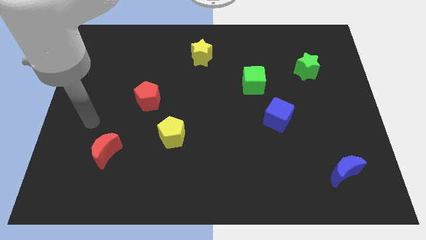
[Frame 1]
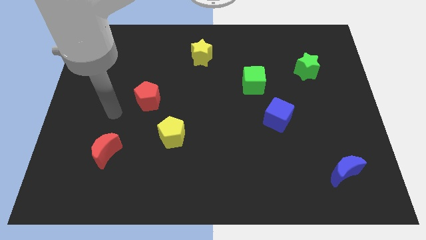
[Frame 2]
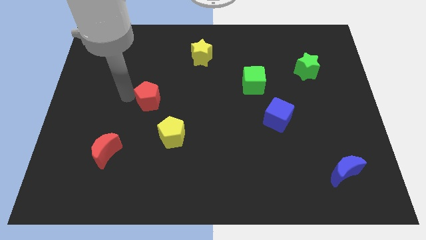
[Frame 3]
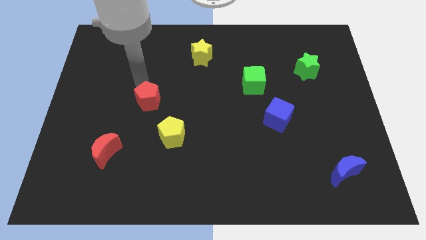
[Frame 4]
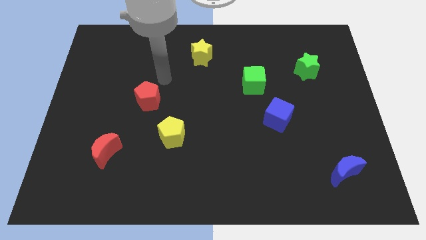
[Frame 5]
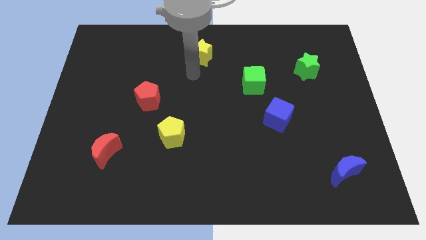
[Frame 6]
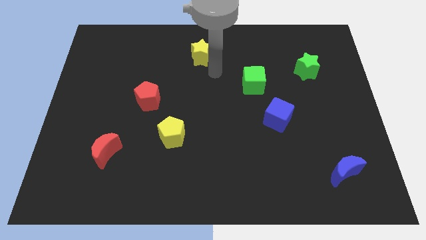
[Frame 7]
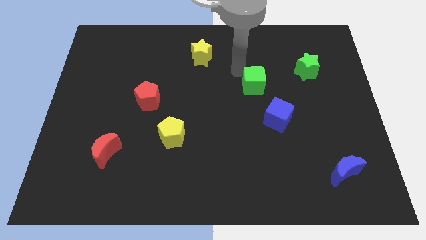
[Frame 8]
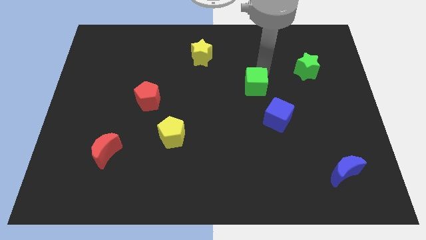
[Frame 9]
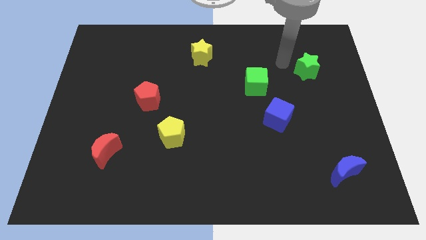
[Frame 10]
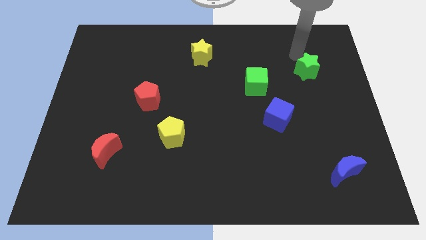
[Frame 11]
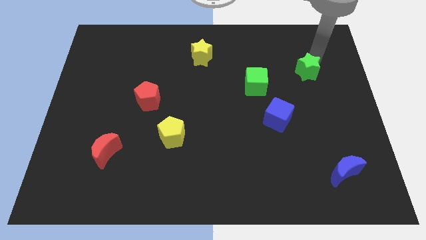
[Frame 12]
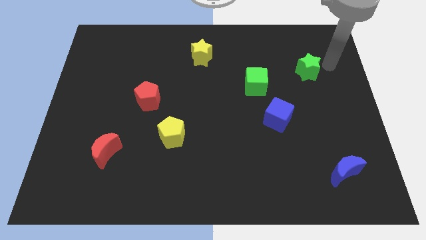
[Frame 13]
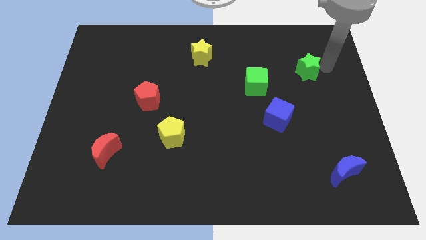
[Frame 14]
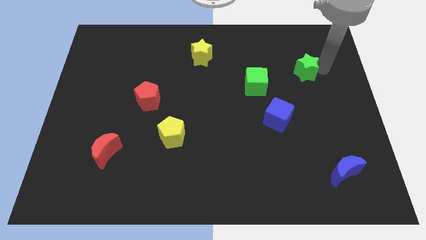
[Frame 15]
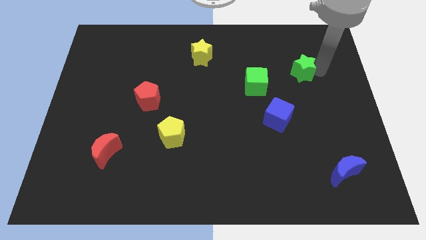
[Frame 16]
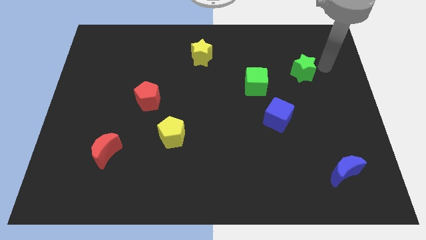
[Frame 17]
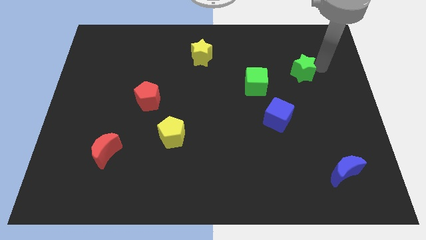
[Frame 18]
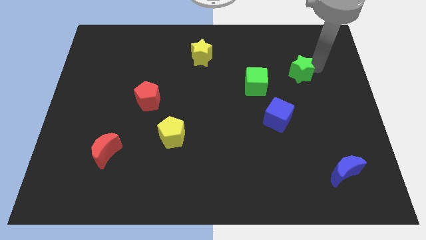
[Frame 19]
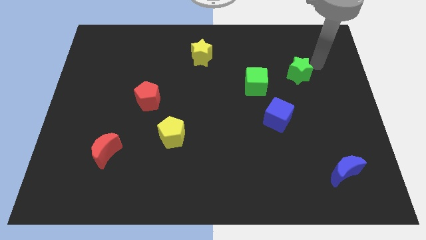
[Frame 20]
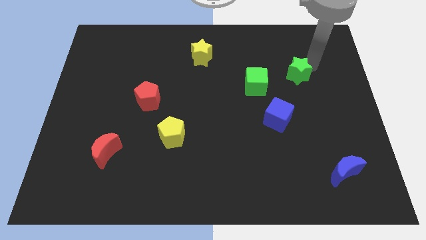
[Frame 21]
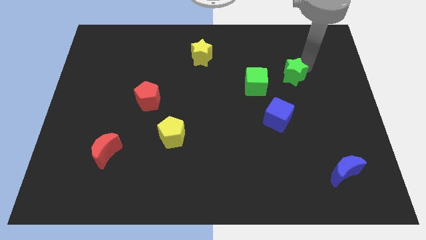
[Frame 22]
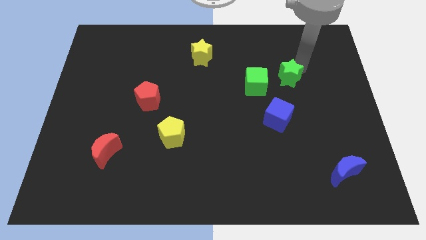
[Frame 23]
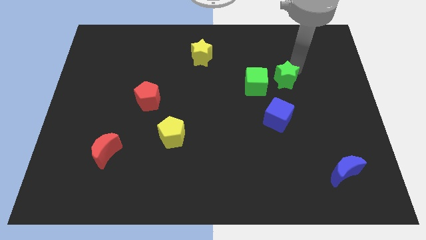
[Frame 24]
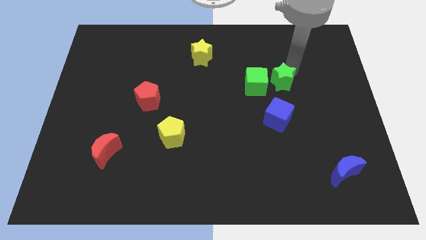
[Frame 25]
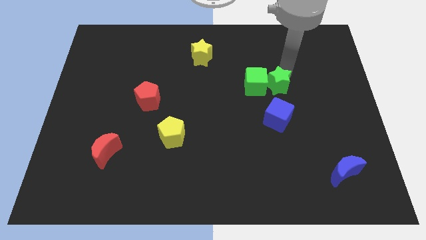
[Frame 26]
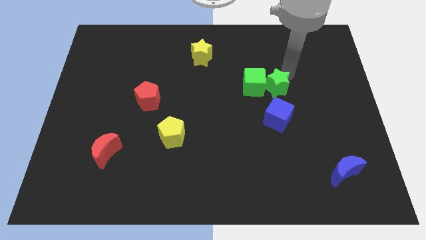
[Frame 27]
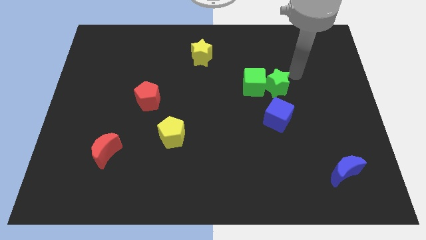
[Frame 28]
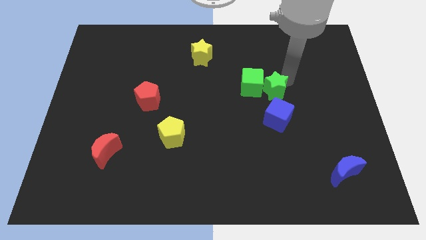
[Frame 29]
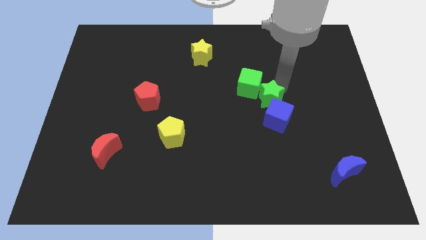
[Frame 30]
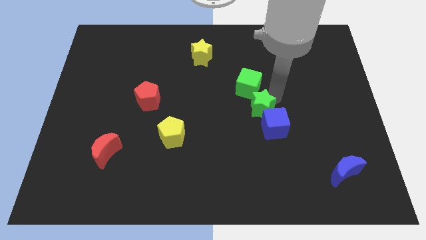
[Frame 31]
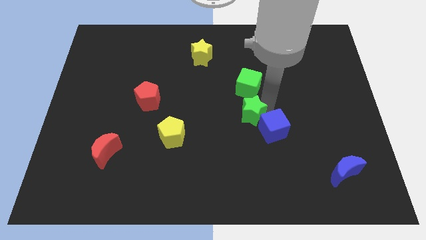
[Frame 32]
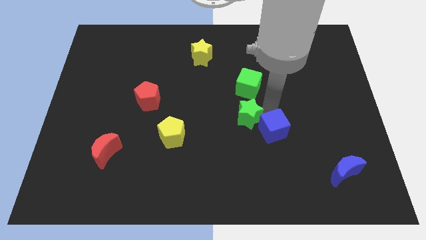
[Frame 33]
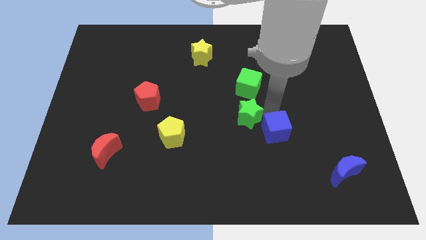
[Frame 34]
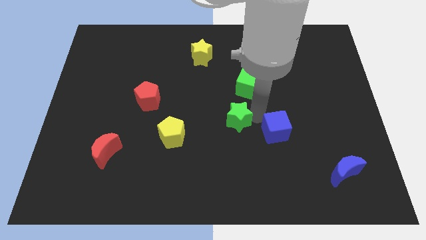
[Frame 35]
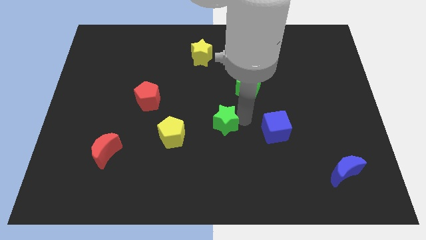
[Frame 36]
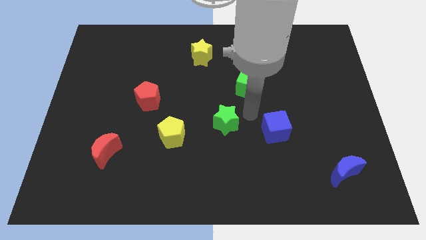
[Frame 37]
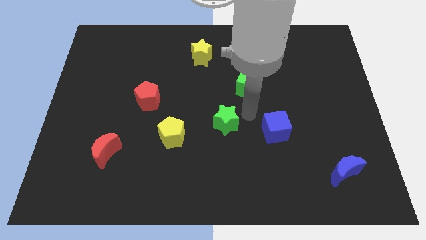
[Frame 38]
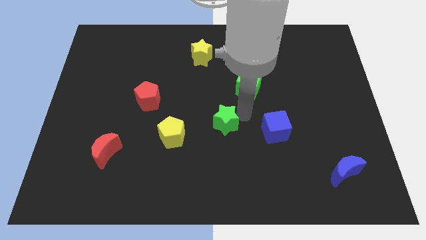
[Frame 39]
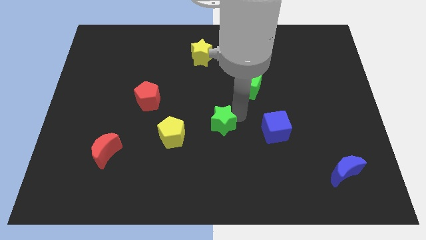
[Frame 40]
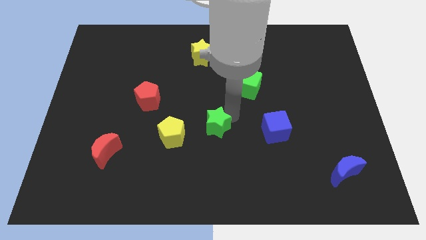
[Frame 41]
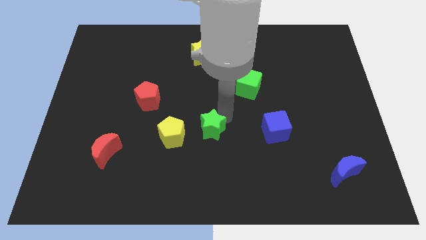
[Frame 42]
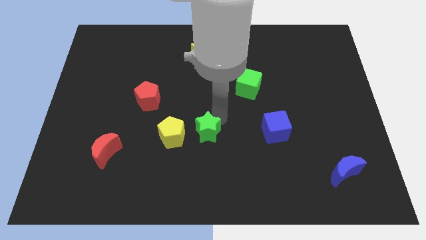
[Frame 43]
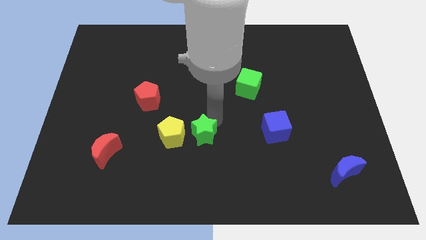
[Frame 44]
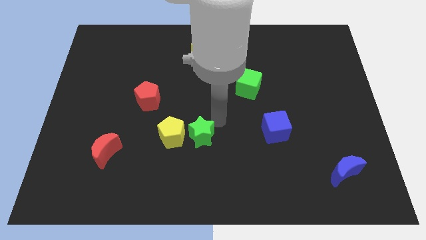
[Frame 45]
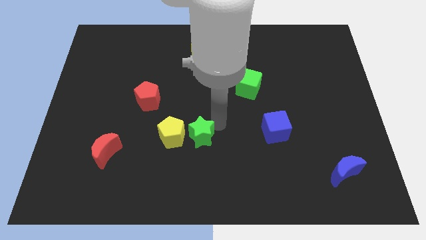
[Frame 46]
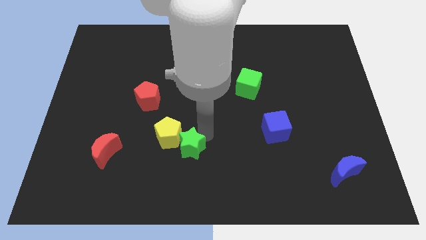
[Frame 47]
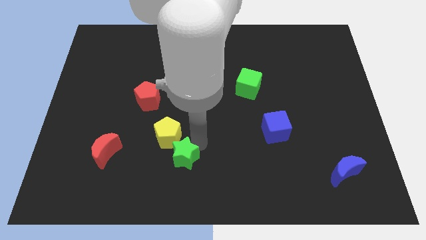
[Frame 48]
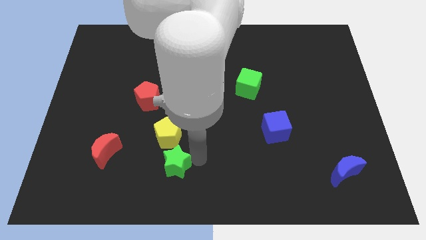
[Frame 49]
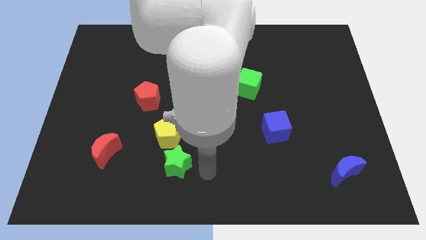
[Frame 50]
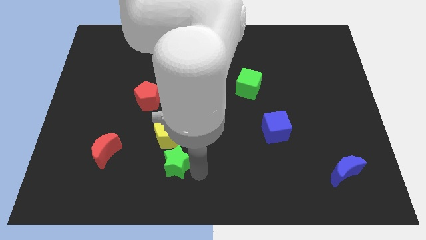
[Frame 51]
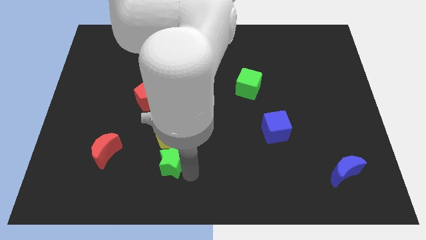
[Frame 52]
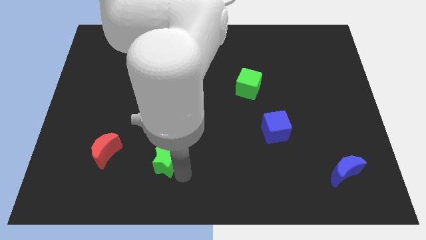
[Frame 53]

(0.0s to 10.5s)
slide the green star to the bottom left side of the yellow pentagon

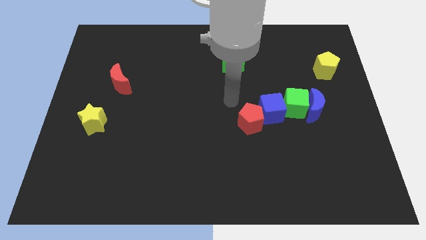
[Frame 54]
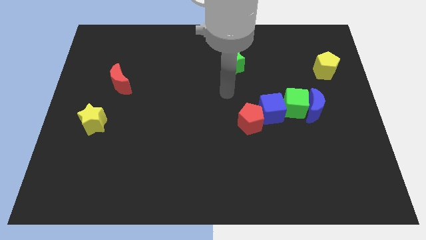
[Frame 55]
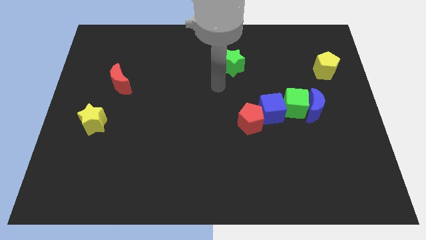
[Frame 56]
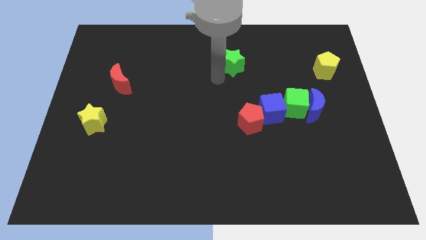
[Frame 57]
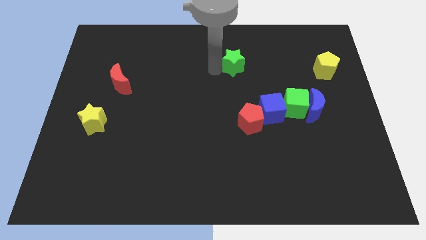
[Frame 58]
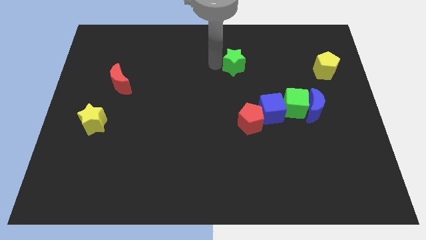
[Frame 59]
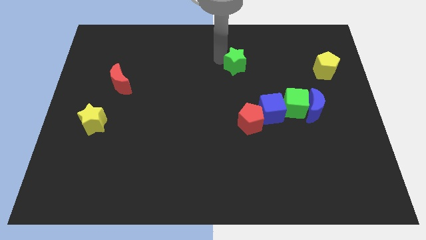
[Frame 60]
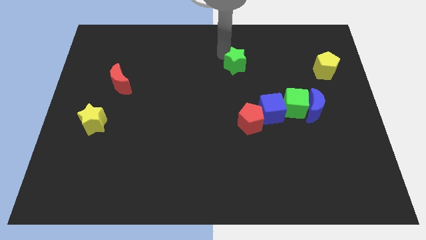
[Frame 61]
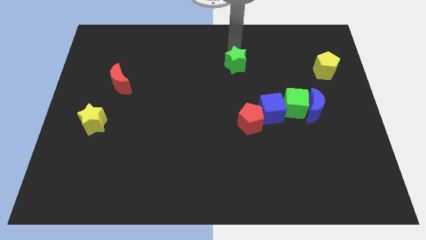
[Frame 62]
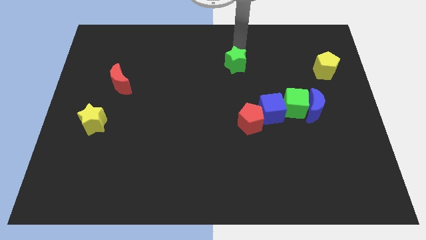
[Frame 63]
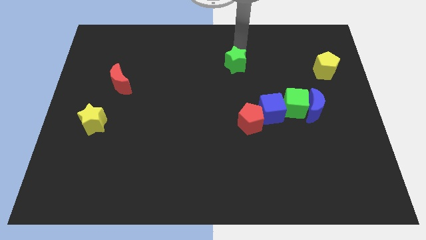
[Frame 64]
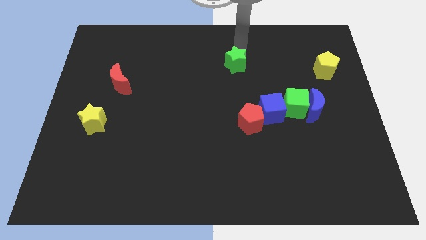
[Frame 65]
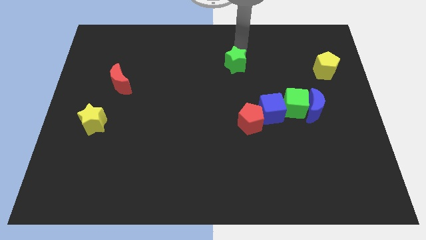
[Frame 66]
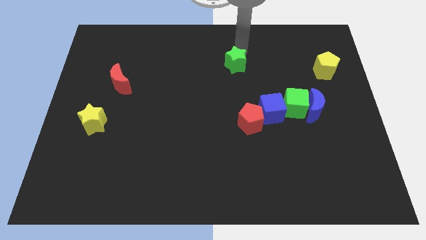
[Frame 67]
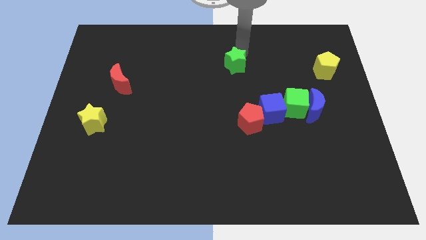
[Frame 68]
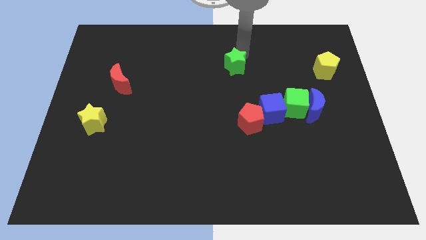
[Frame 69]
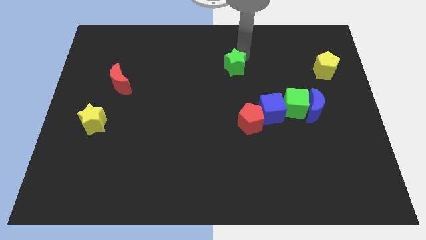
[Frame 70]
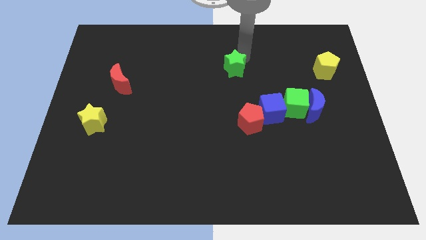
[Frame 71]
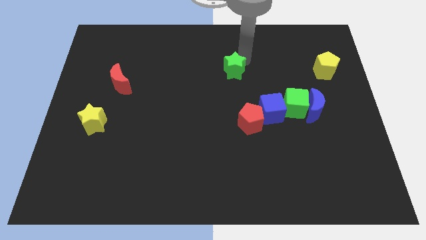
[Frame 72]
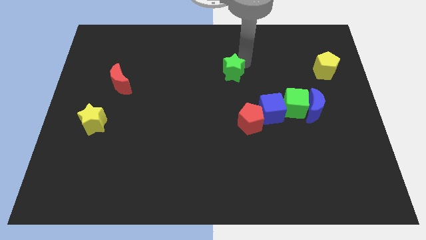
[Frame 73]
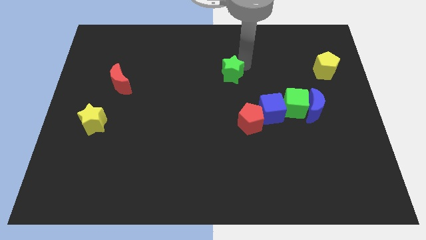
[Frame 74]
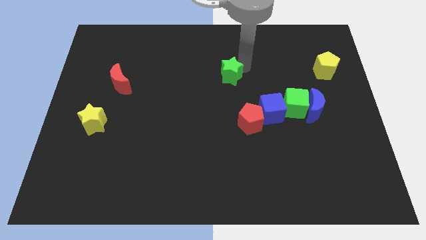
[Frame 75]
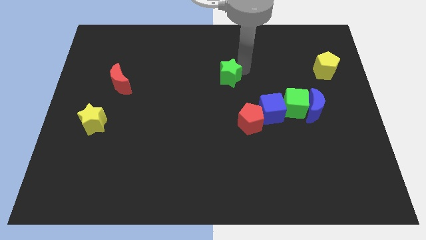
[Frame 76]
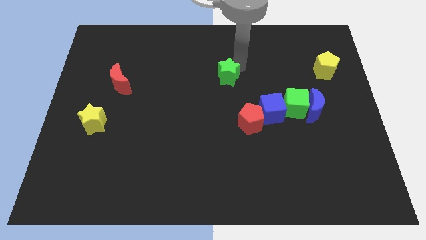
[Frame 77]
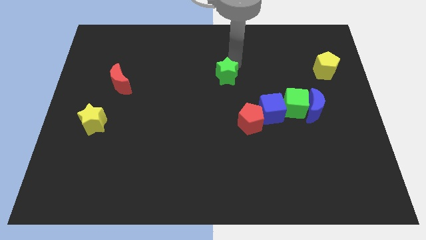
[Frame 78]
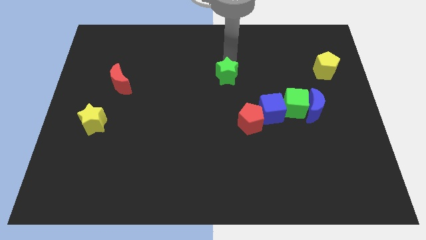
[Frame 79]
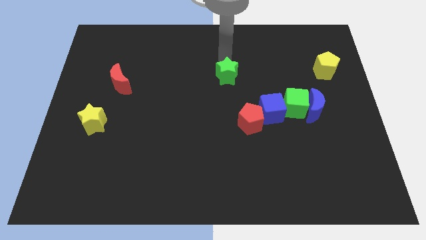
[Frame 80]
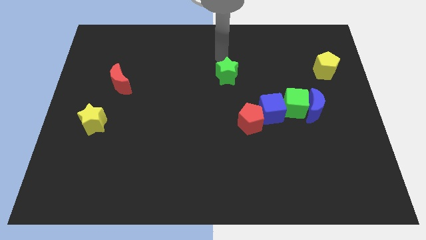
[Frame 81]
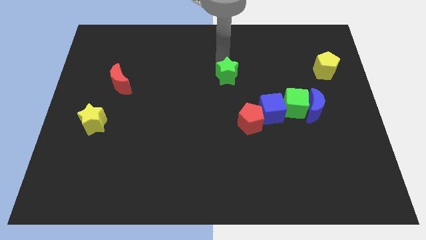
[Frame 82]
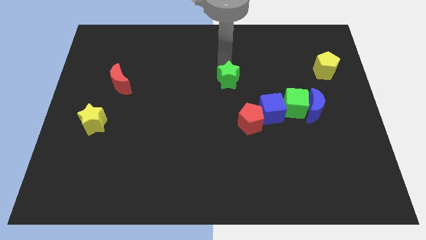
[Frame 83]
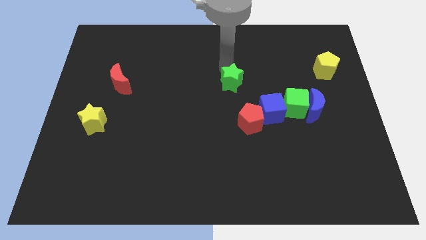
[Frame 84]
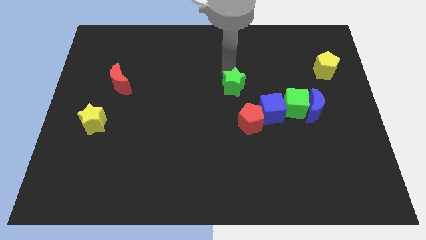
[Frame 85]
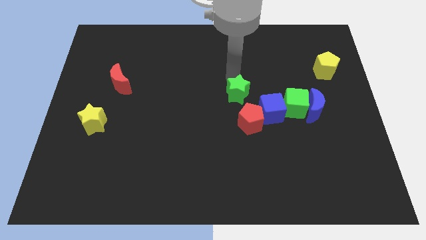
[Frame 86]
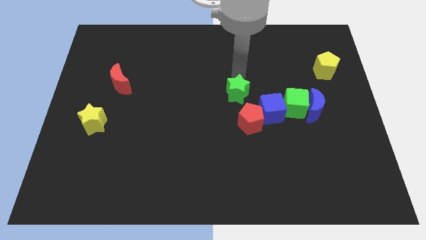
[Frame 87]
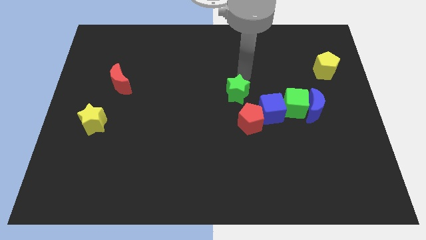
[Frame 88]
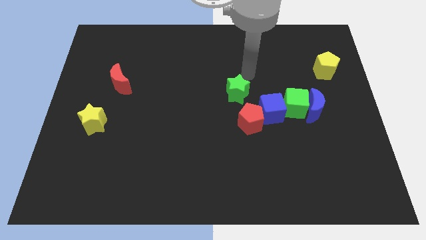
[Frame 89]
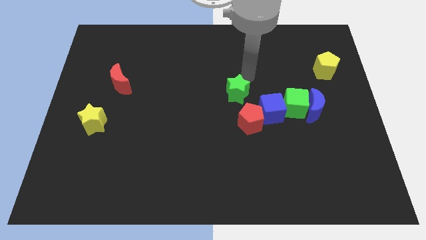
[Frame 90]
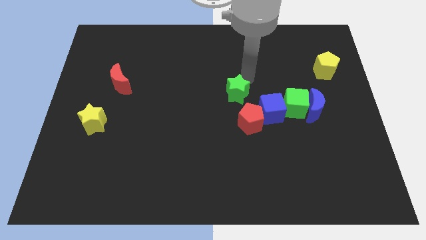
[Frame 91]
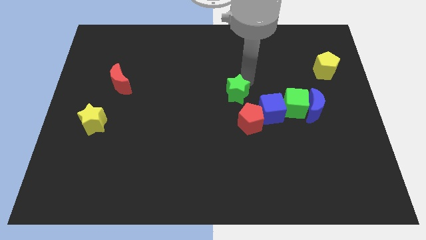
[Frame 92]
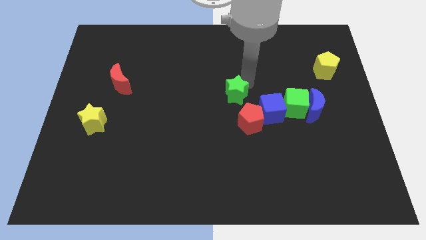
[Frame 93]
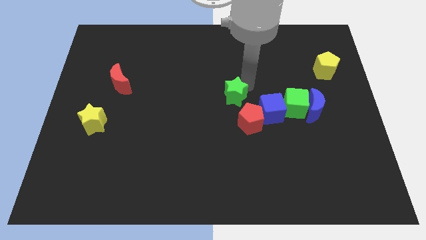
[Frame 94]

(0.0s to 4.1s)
move the green star left of the blue cube
